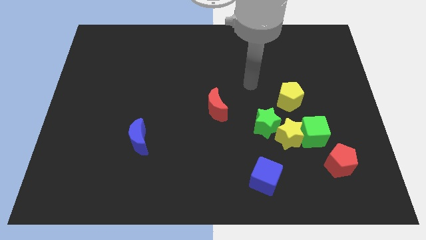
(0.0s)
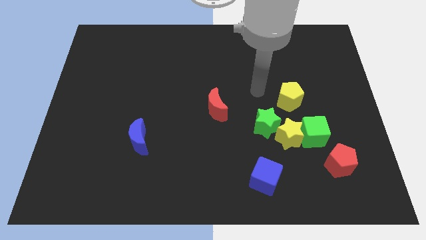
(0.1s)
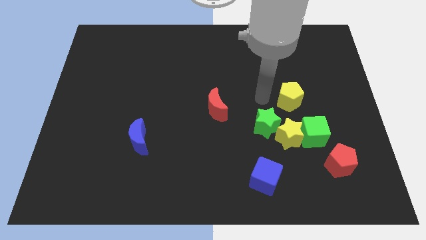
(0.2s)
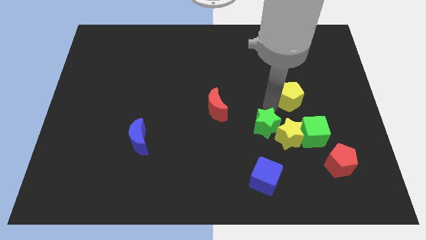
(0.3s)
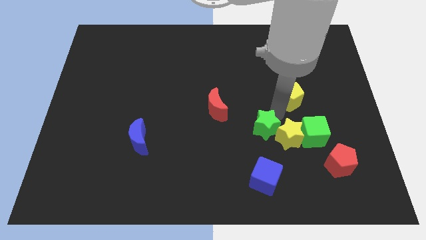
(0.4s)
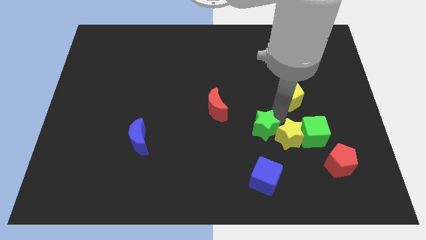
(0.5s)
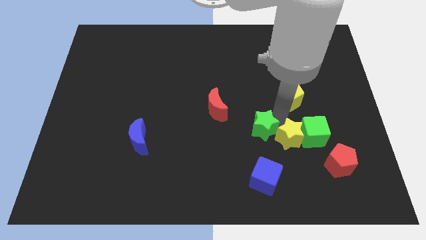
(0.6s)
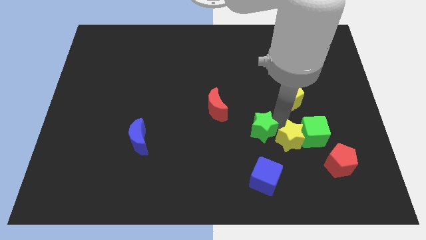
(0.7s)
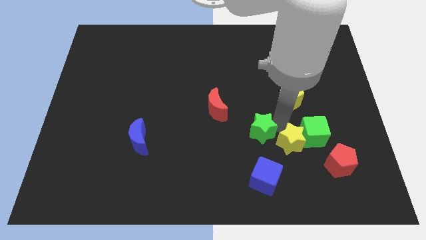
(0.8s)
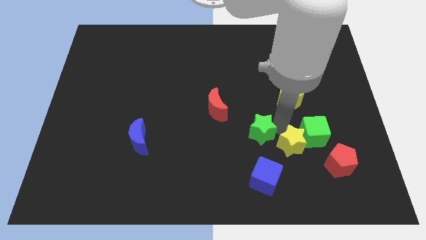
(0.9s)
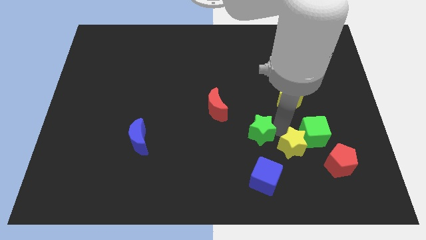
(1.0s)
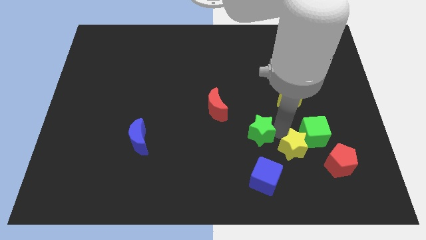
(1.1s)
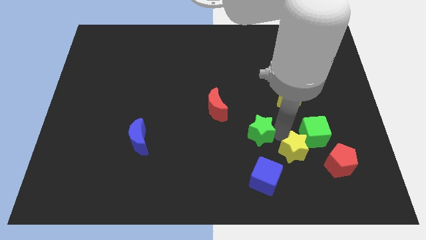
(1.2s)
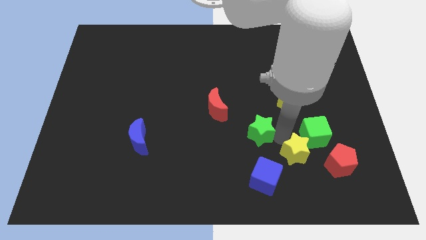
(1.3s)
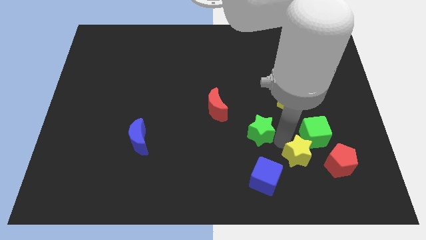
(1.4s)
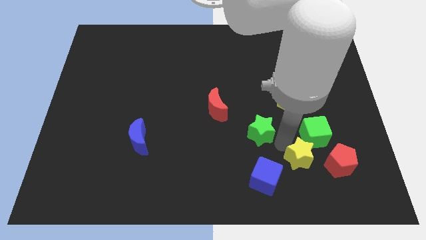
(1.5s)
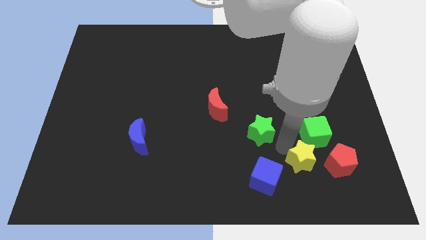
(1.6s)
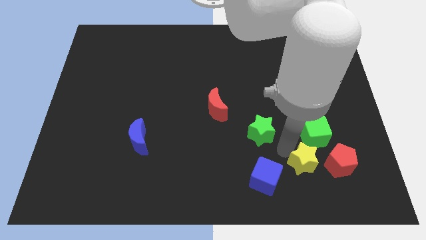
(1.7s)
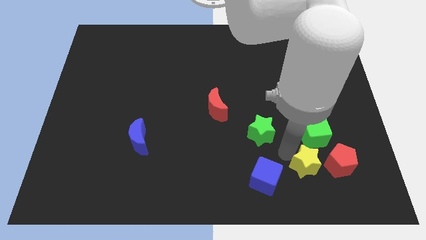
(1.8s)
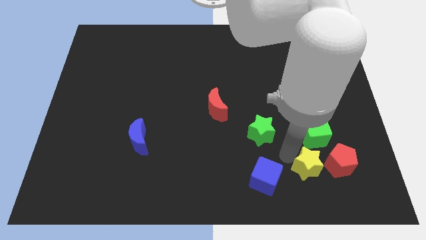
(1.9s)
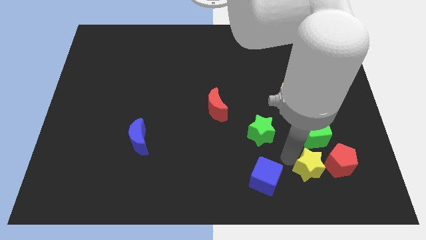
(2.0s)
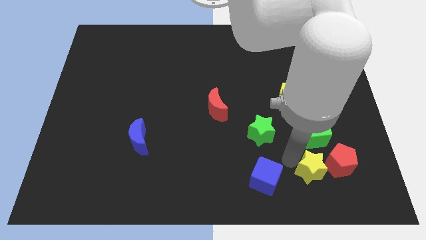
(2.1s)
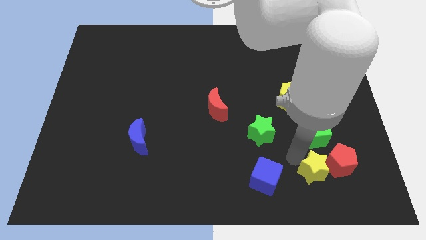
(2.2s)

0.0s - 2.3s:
separate the yellow star from the green cube and green star

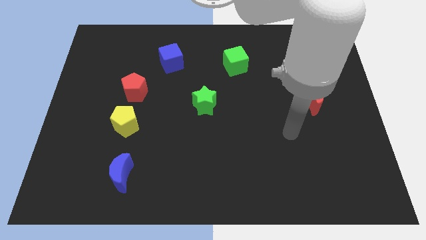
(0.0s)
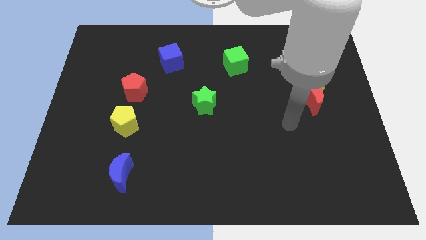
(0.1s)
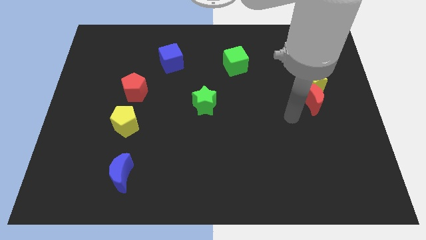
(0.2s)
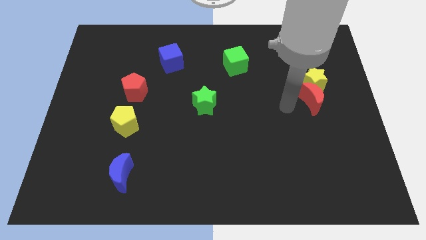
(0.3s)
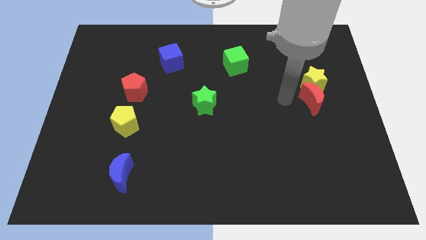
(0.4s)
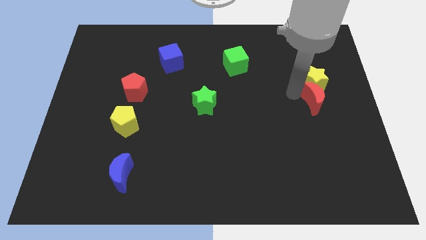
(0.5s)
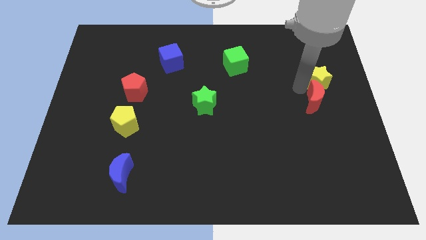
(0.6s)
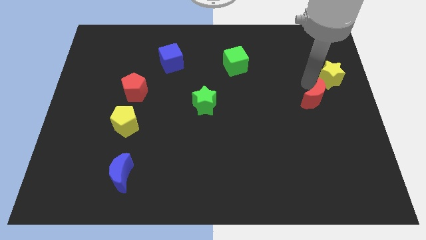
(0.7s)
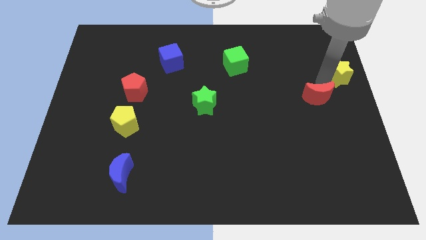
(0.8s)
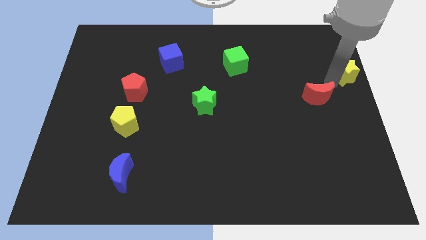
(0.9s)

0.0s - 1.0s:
move the red moon away from the yellow star

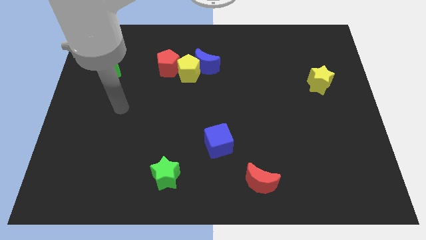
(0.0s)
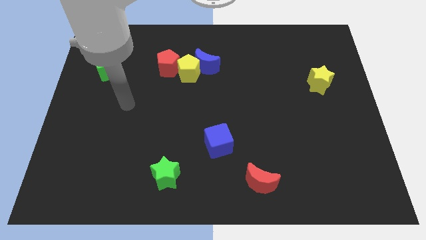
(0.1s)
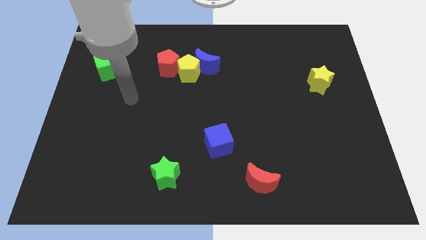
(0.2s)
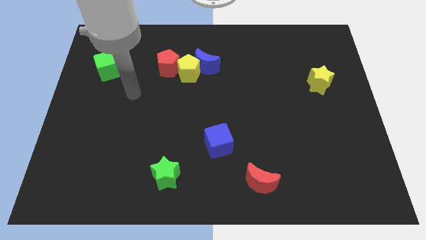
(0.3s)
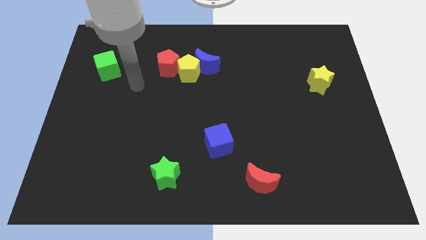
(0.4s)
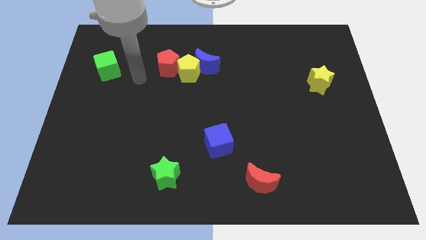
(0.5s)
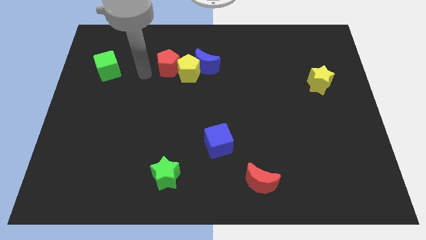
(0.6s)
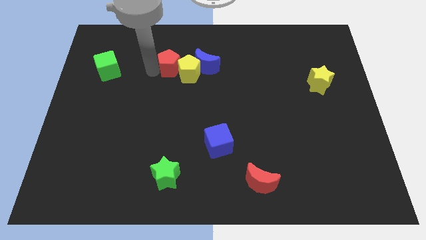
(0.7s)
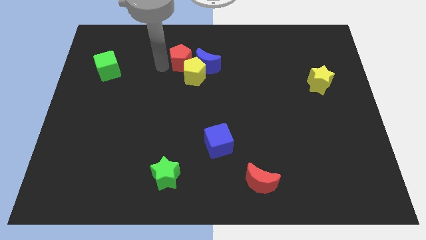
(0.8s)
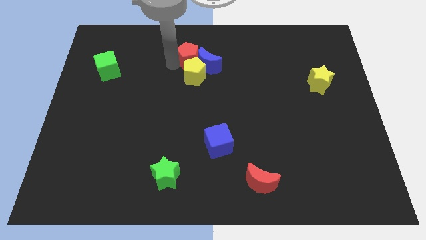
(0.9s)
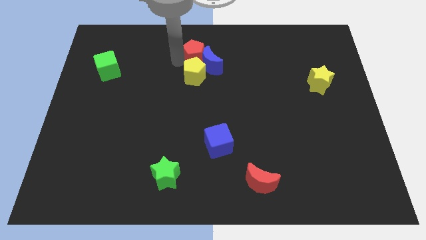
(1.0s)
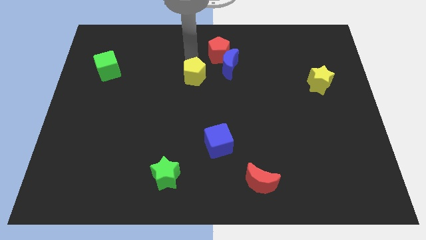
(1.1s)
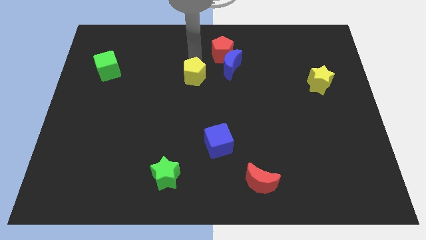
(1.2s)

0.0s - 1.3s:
separate the yellow pentagon from the blue moon and red pentagon

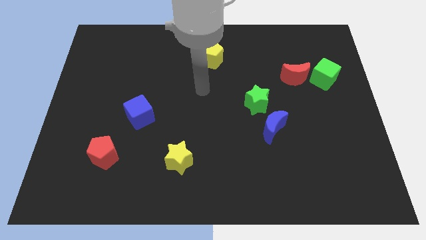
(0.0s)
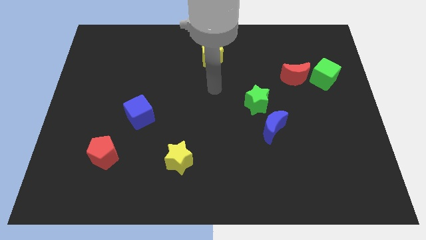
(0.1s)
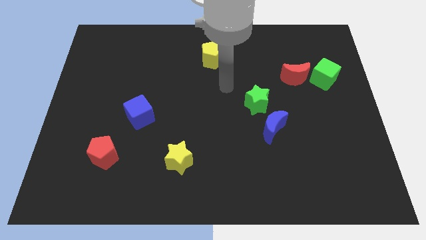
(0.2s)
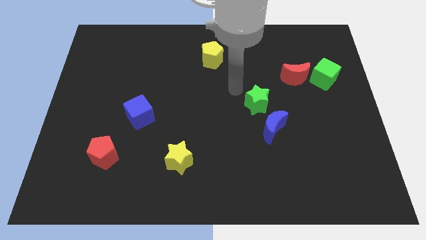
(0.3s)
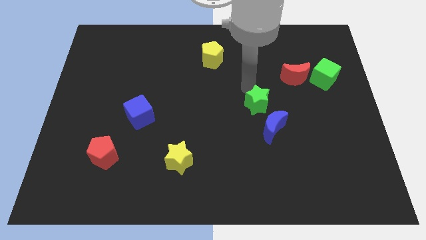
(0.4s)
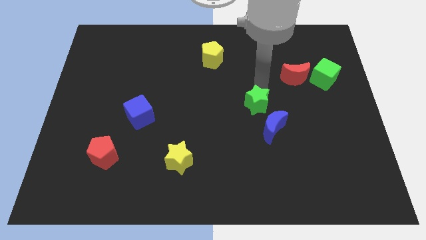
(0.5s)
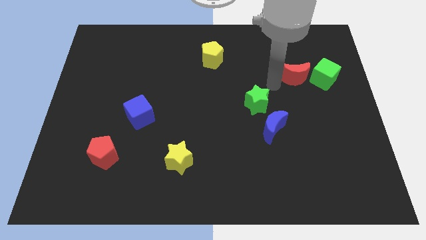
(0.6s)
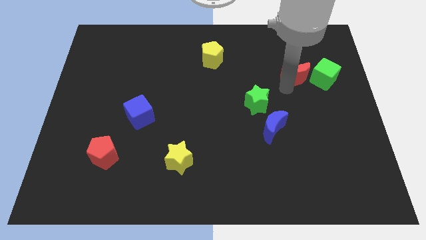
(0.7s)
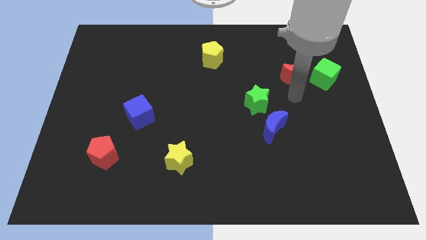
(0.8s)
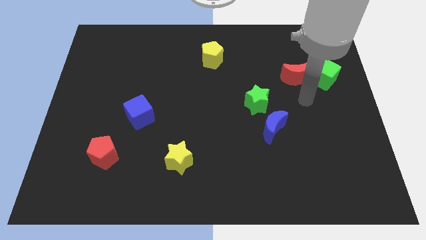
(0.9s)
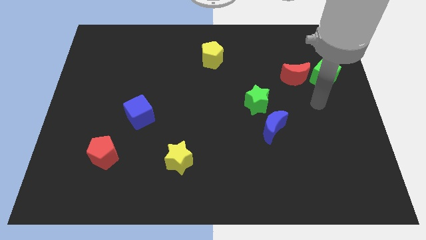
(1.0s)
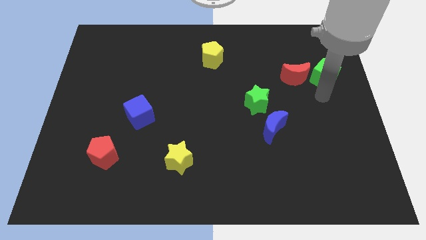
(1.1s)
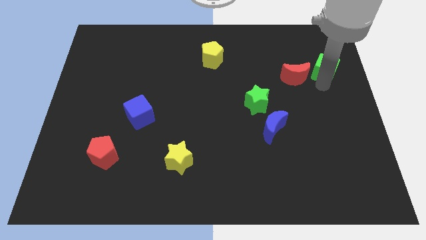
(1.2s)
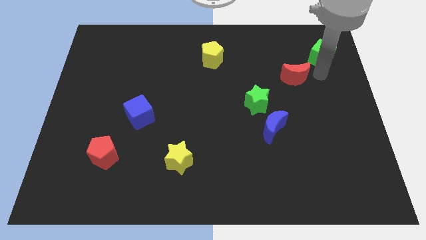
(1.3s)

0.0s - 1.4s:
pull the red moon apart from the green cube

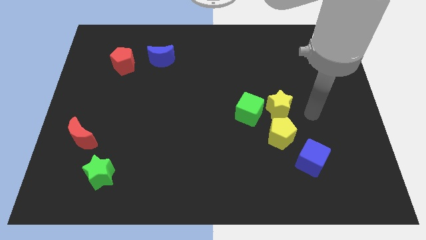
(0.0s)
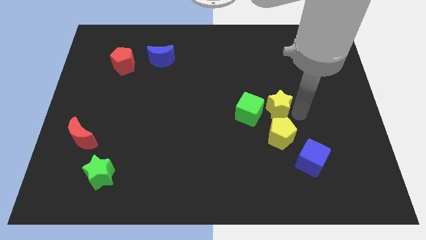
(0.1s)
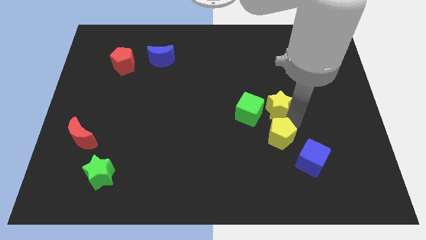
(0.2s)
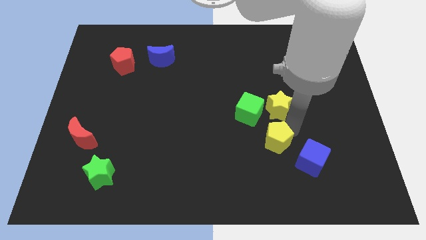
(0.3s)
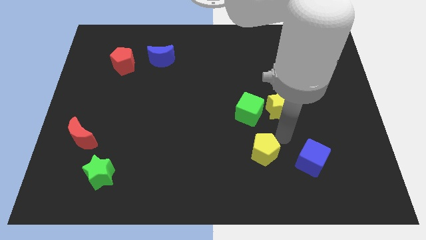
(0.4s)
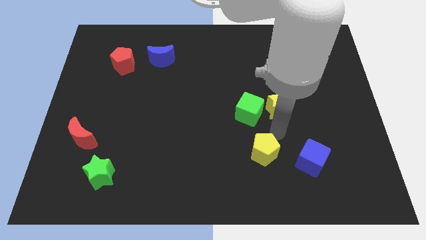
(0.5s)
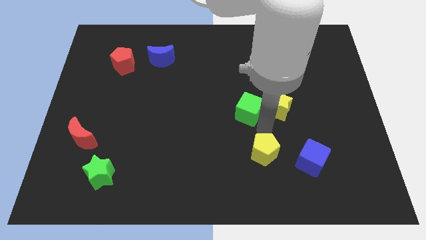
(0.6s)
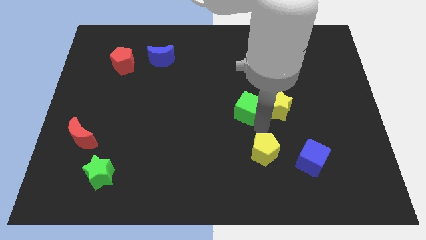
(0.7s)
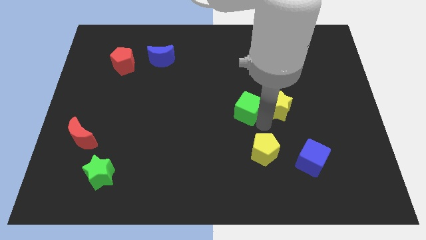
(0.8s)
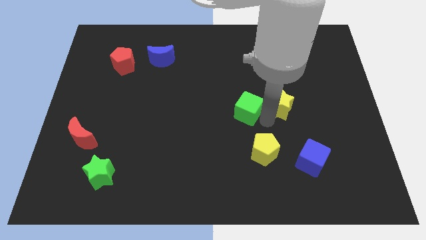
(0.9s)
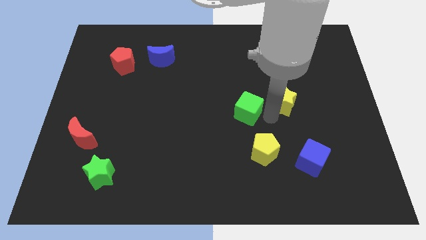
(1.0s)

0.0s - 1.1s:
separate the yellow star from the green cube and yellow pentagon

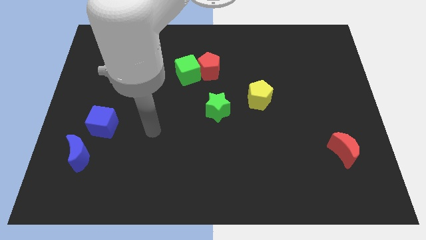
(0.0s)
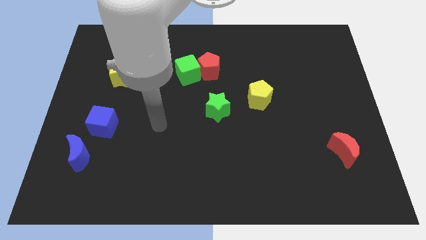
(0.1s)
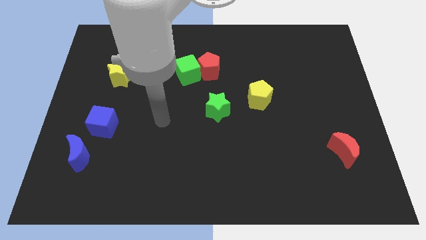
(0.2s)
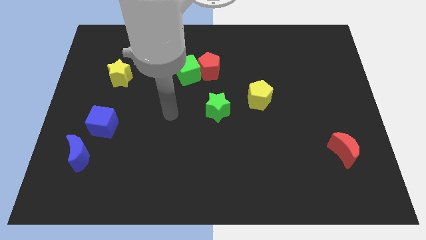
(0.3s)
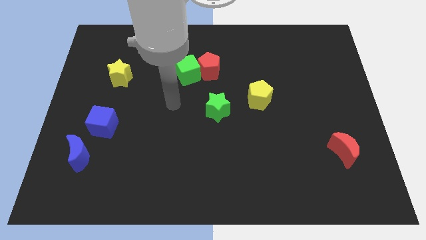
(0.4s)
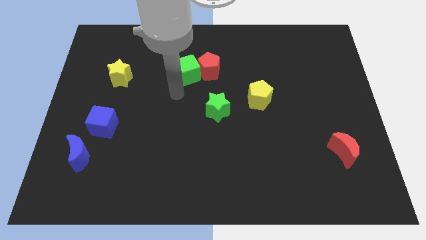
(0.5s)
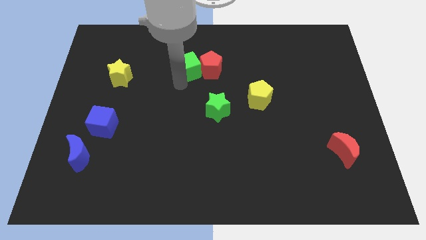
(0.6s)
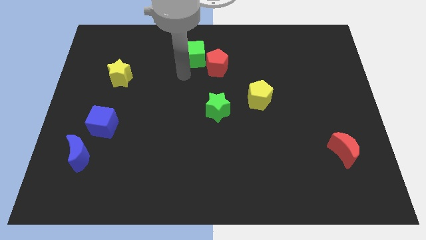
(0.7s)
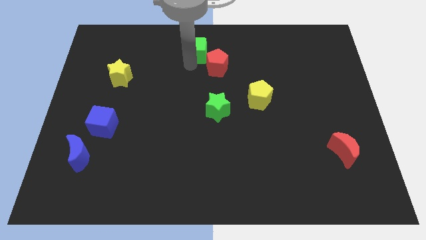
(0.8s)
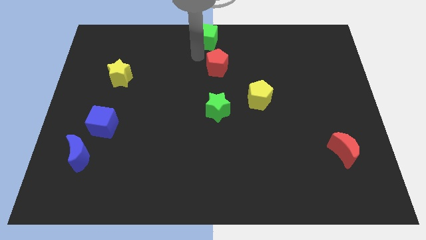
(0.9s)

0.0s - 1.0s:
move the red pentagon away from the green cube

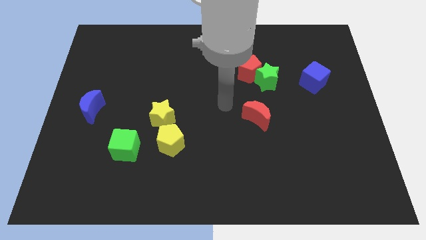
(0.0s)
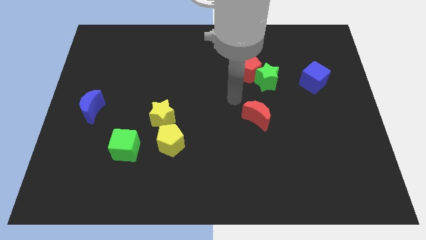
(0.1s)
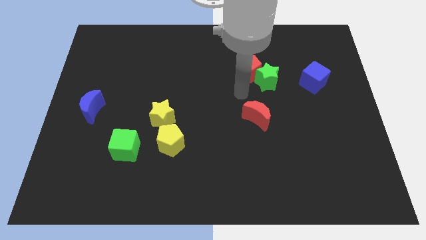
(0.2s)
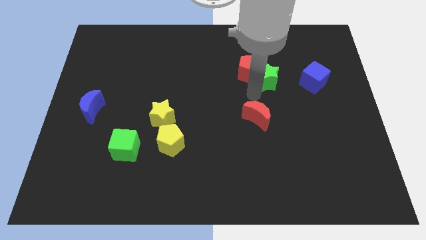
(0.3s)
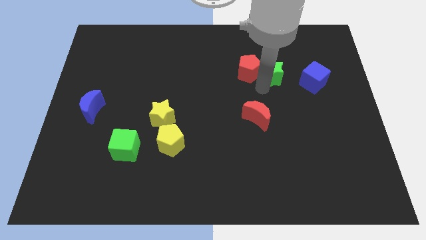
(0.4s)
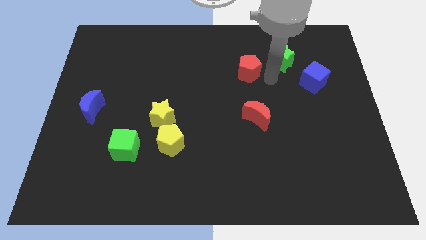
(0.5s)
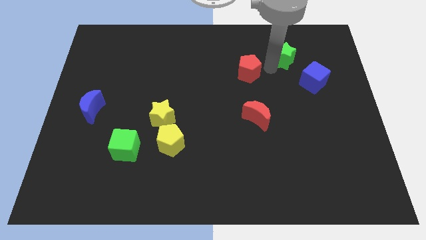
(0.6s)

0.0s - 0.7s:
separate the red pentagon from the green star

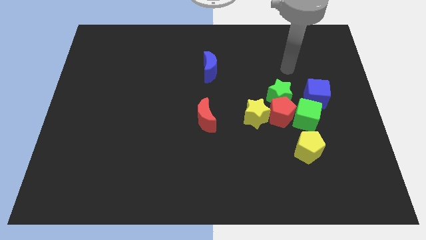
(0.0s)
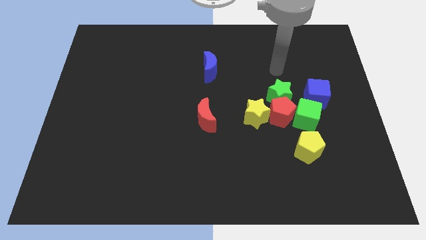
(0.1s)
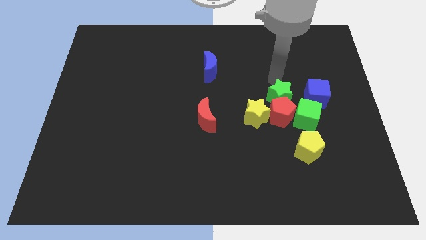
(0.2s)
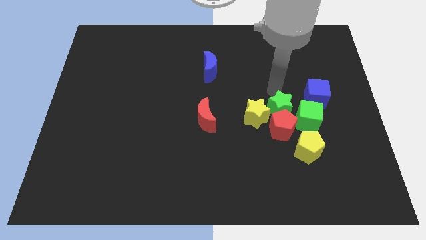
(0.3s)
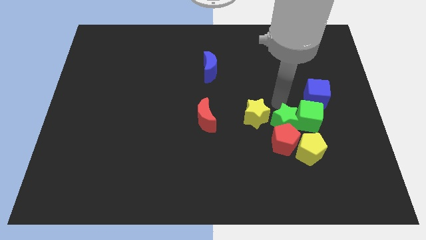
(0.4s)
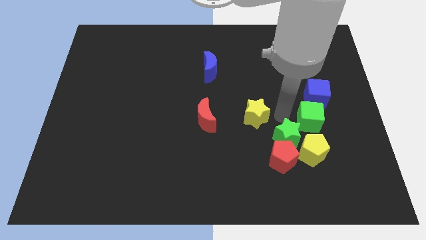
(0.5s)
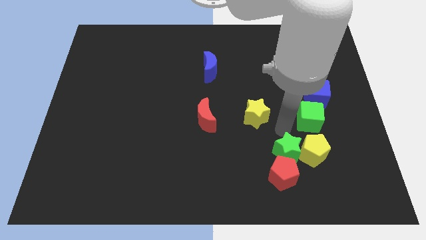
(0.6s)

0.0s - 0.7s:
separate the red pentagon from the green star, yellow star, and green cube
